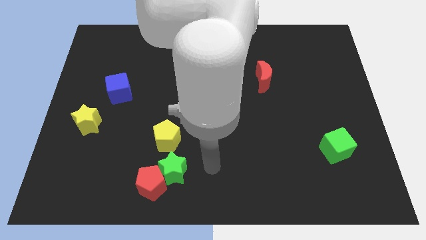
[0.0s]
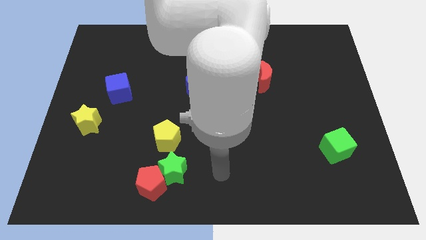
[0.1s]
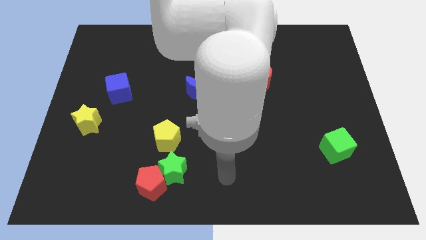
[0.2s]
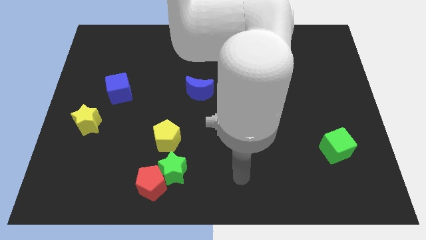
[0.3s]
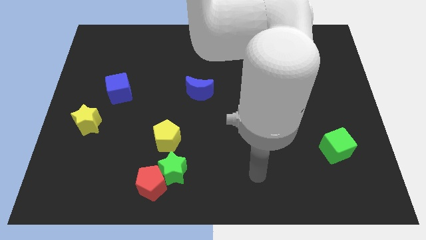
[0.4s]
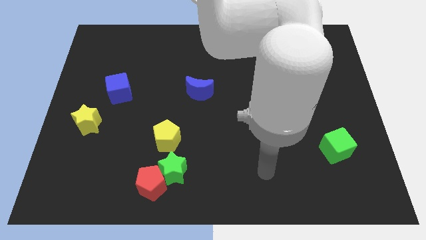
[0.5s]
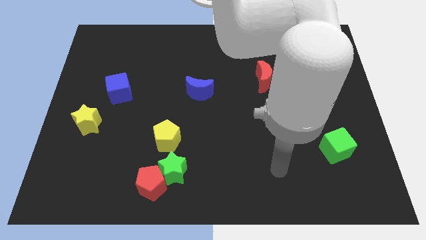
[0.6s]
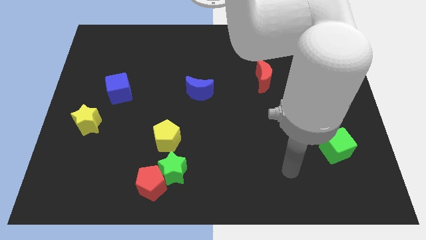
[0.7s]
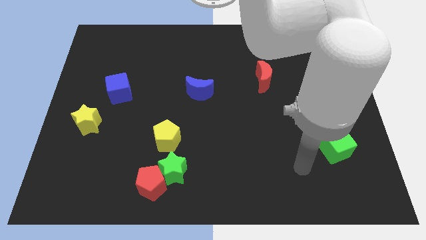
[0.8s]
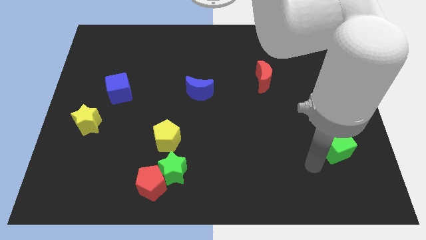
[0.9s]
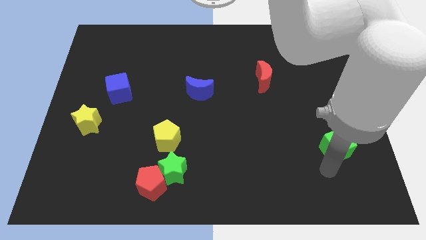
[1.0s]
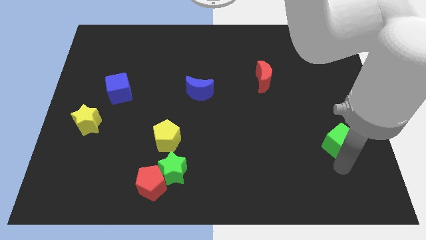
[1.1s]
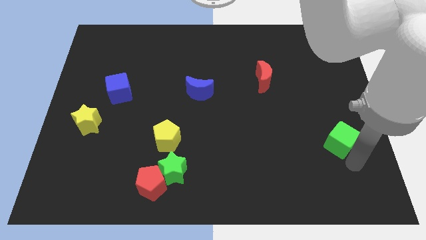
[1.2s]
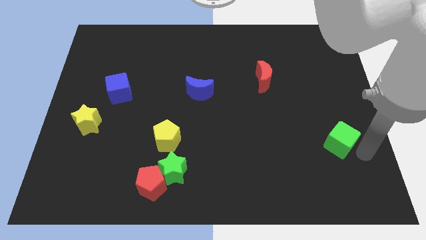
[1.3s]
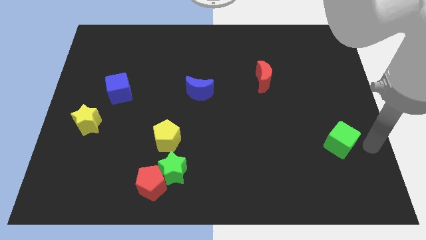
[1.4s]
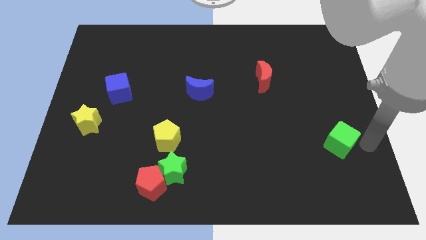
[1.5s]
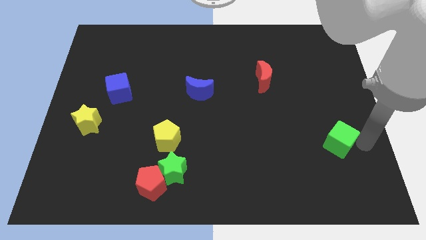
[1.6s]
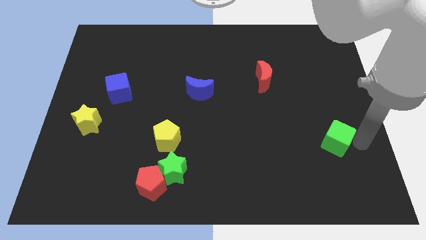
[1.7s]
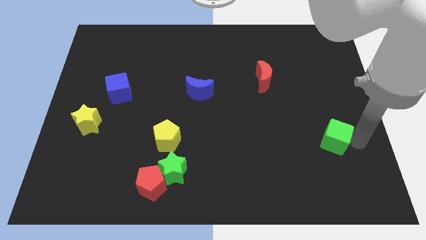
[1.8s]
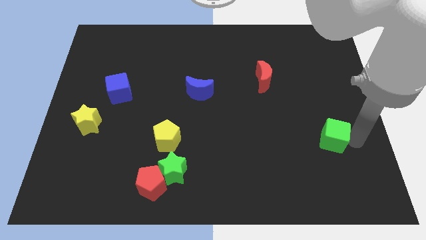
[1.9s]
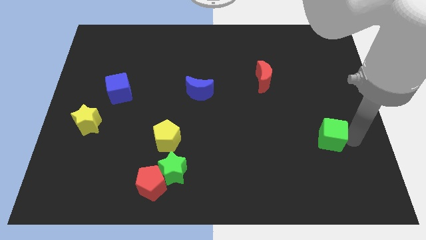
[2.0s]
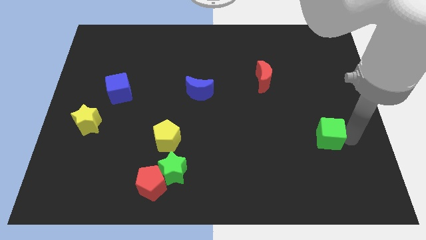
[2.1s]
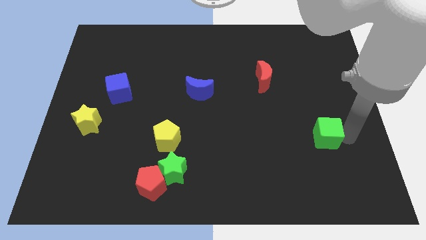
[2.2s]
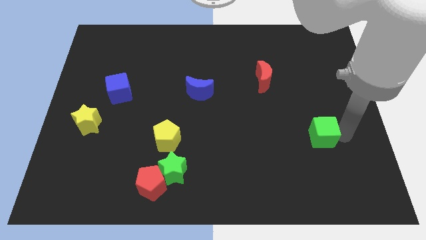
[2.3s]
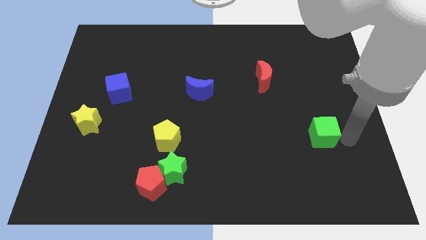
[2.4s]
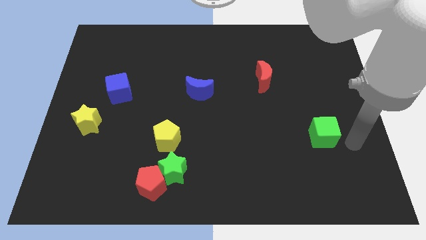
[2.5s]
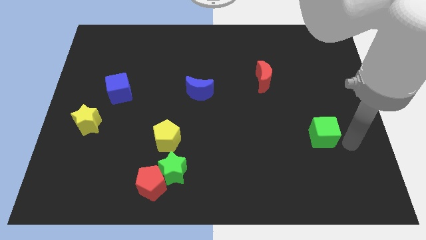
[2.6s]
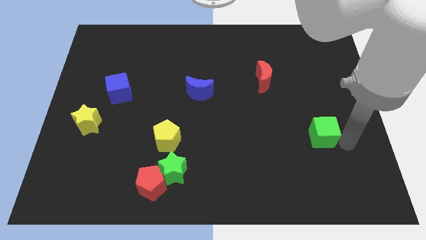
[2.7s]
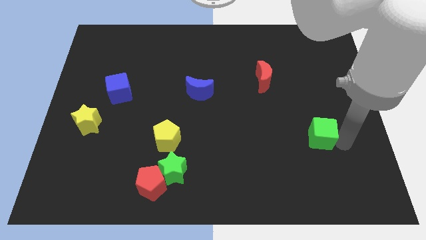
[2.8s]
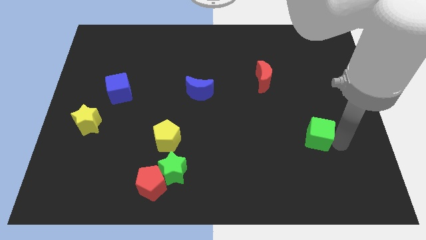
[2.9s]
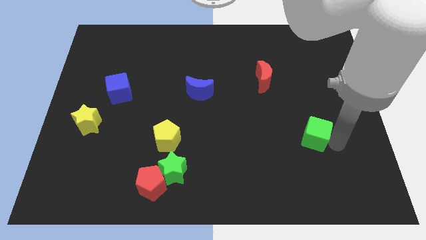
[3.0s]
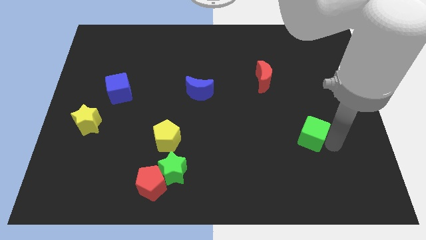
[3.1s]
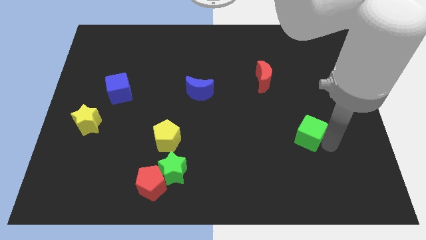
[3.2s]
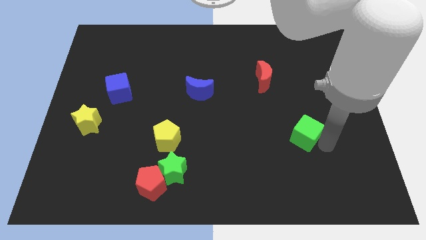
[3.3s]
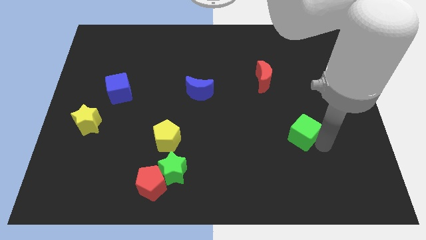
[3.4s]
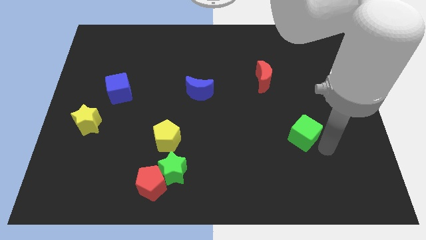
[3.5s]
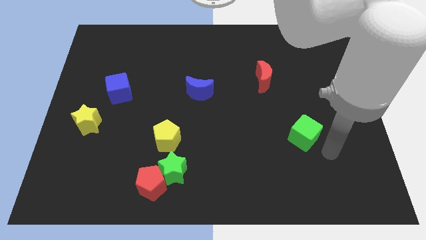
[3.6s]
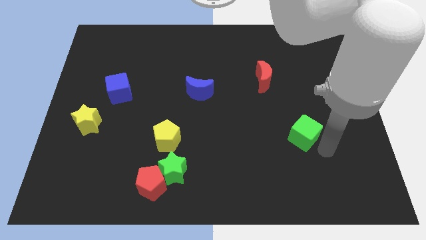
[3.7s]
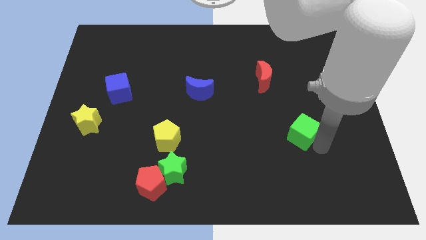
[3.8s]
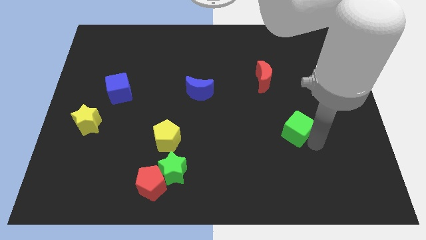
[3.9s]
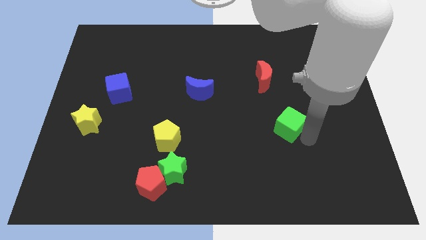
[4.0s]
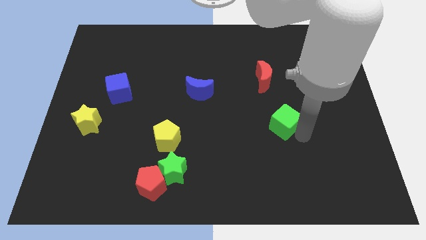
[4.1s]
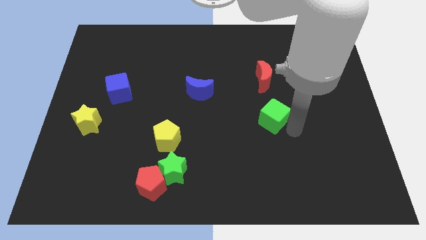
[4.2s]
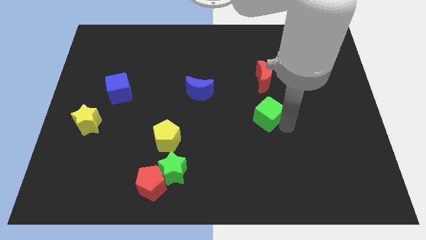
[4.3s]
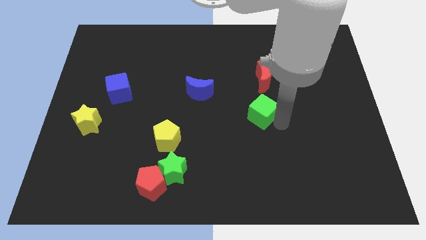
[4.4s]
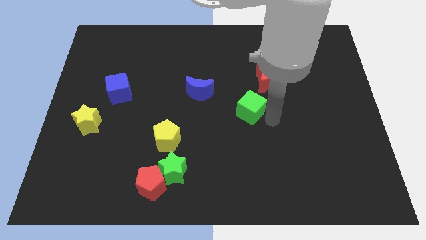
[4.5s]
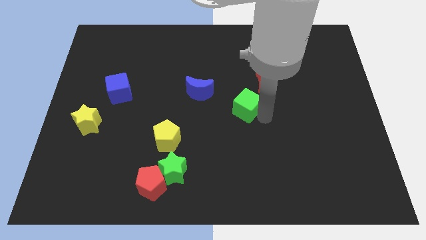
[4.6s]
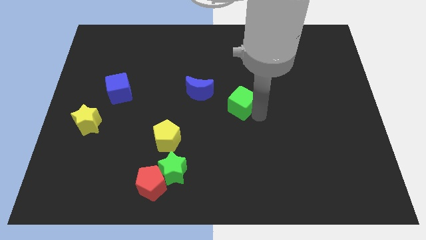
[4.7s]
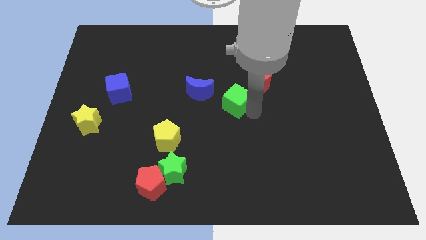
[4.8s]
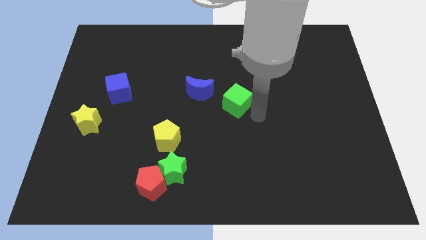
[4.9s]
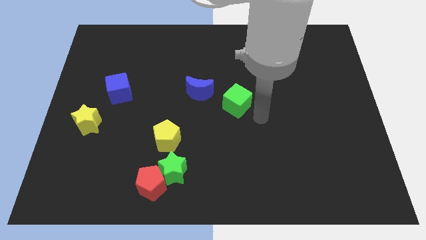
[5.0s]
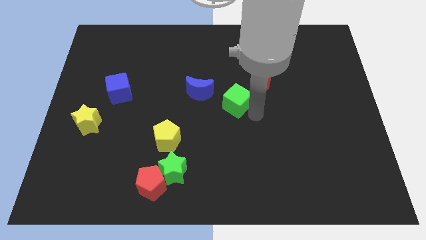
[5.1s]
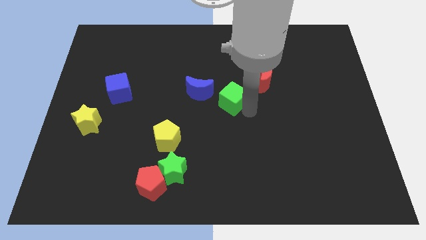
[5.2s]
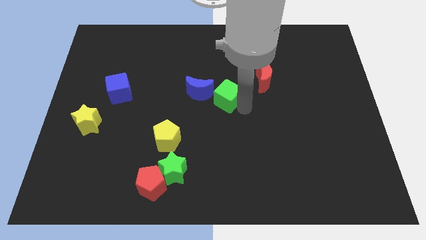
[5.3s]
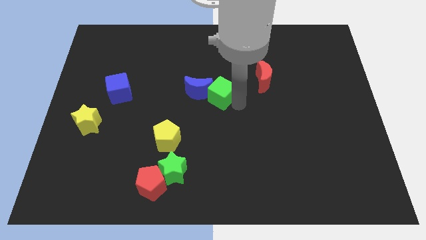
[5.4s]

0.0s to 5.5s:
slide the green cube to the blue moon

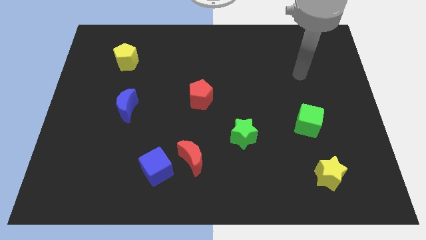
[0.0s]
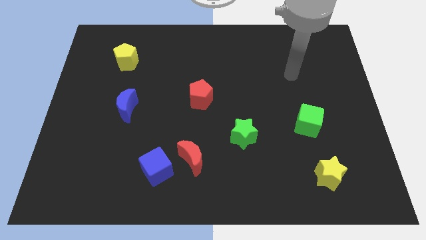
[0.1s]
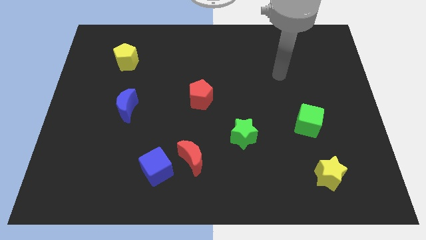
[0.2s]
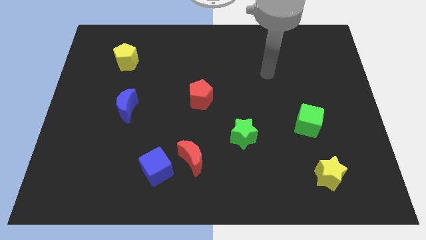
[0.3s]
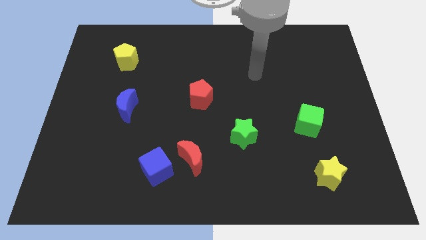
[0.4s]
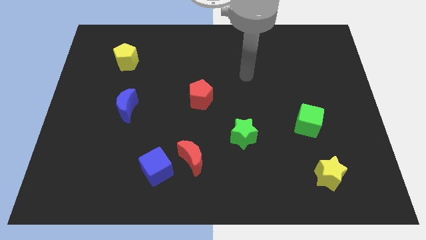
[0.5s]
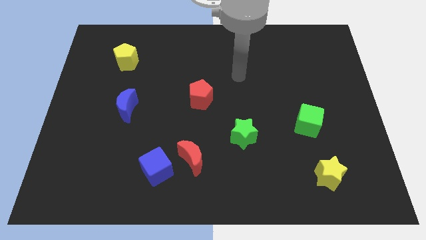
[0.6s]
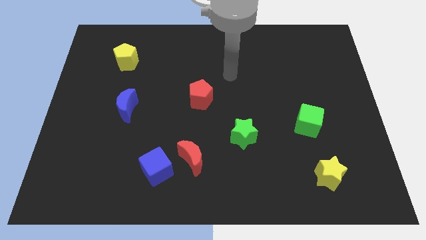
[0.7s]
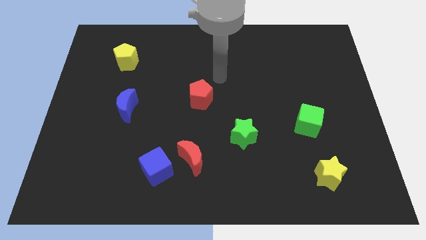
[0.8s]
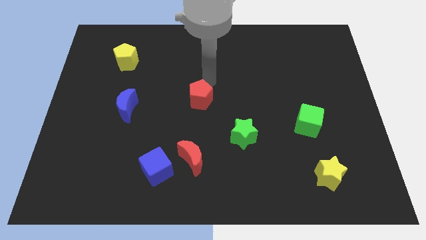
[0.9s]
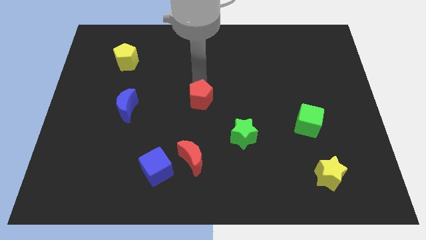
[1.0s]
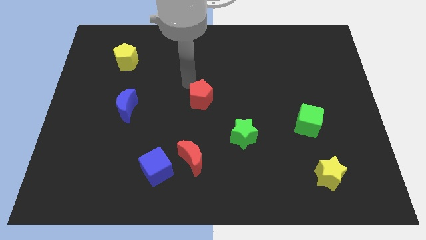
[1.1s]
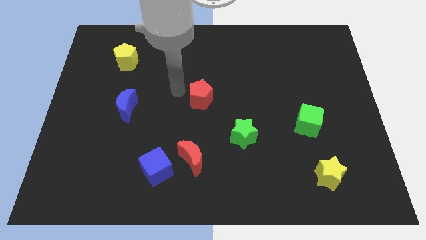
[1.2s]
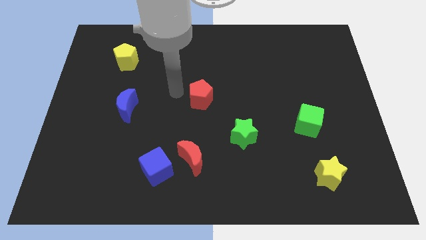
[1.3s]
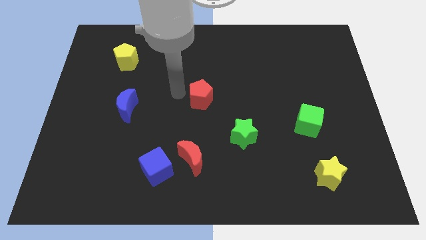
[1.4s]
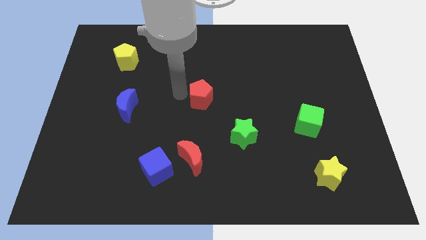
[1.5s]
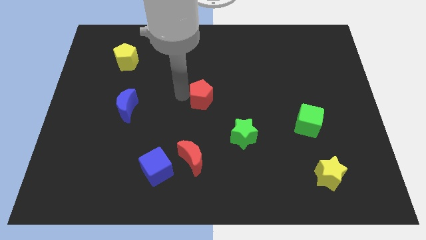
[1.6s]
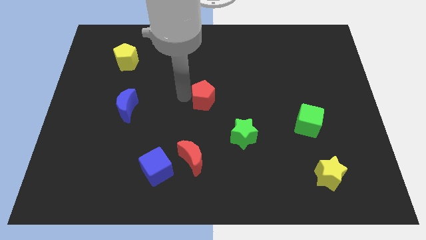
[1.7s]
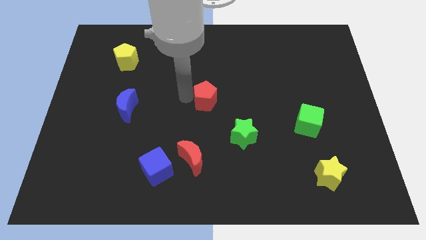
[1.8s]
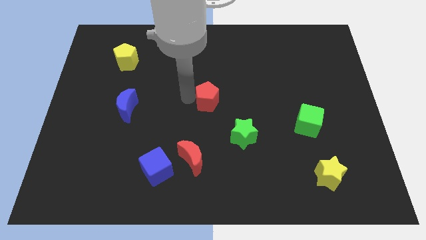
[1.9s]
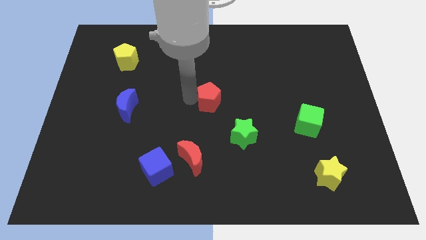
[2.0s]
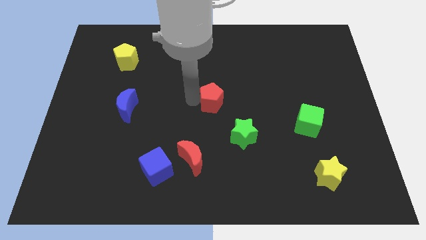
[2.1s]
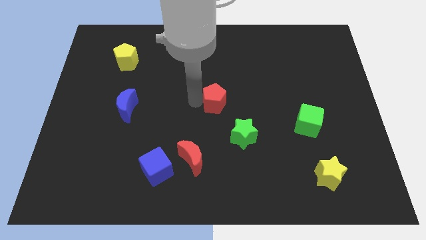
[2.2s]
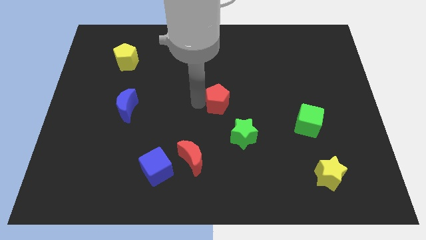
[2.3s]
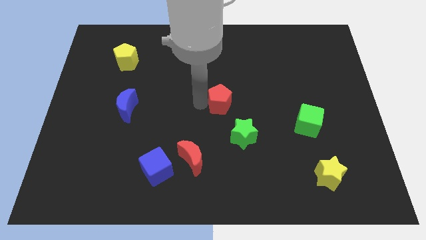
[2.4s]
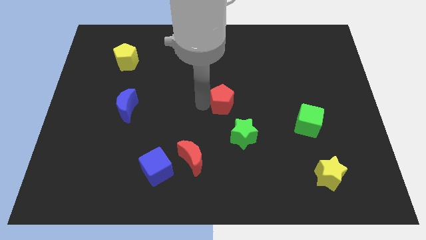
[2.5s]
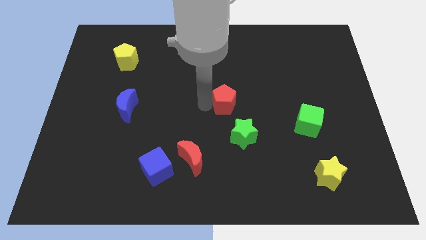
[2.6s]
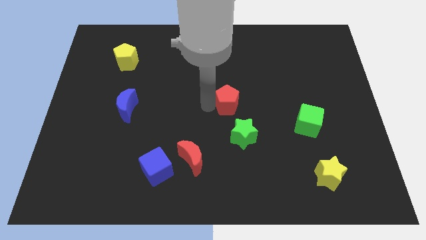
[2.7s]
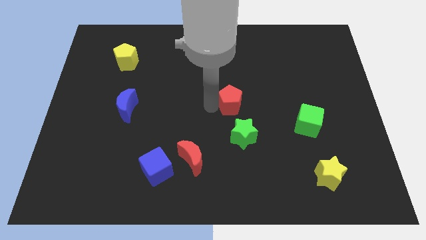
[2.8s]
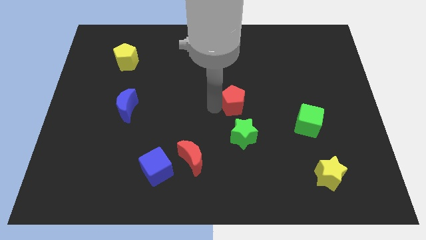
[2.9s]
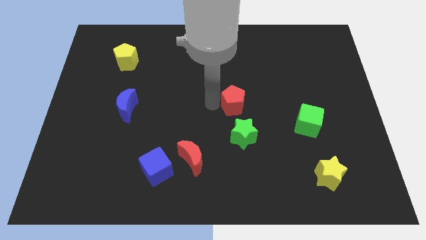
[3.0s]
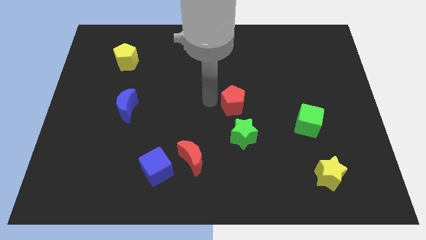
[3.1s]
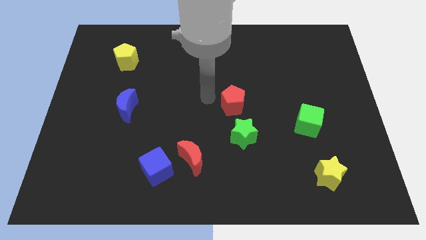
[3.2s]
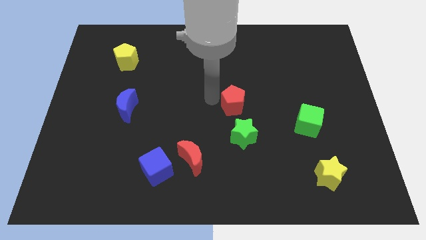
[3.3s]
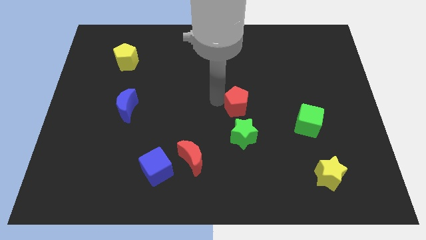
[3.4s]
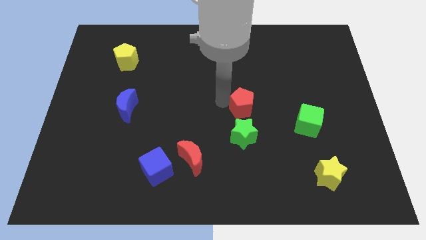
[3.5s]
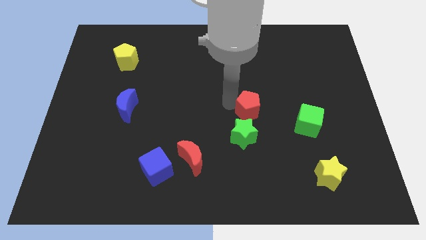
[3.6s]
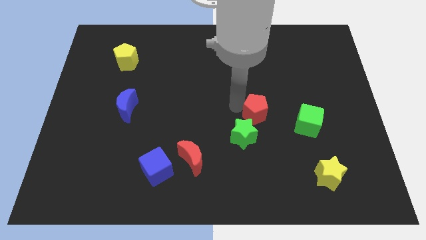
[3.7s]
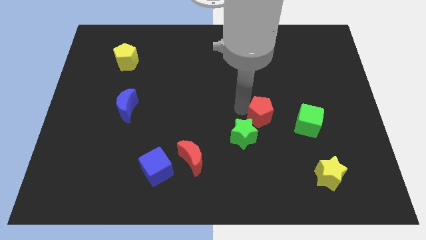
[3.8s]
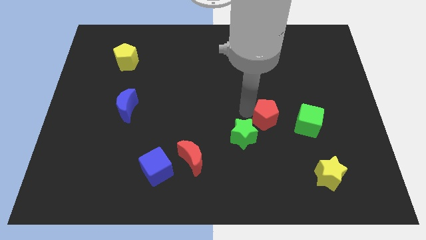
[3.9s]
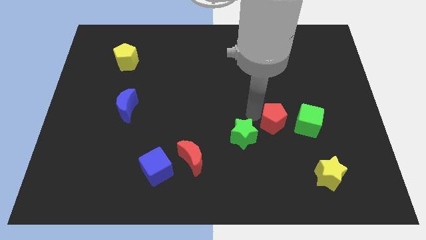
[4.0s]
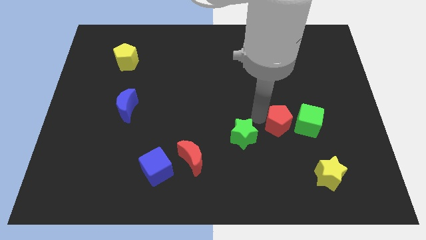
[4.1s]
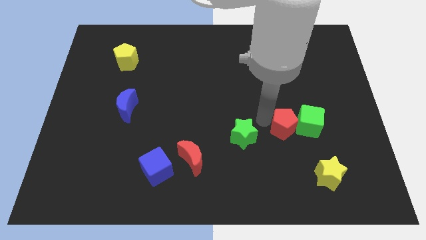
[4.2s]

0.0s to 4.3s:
move the red pentagon close to the green cube
